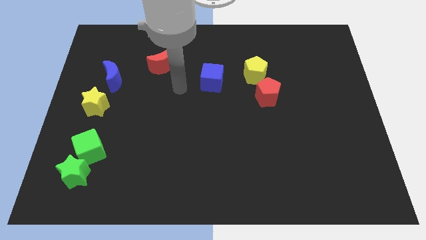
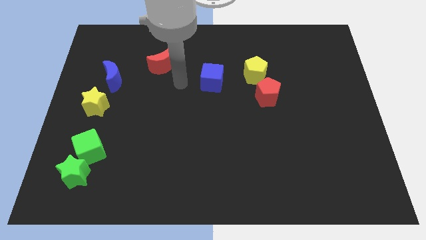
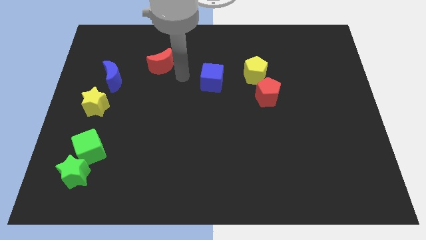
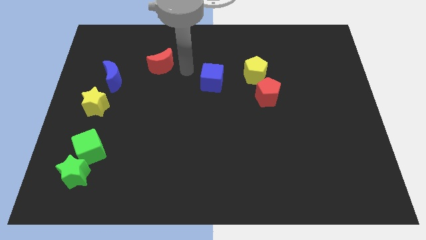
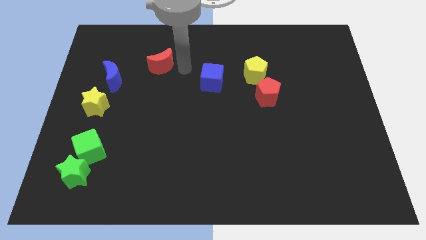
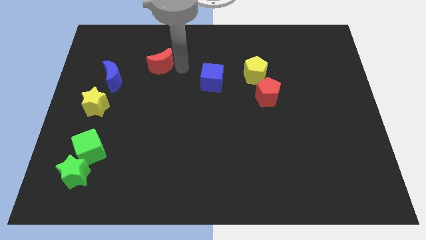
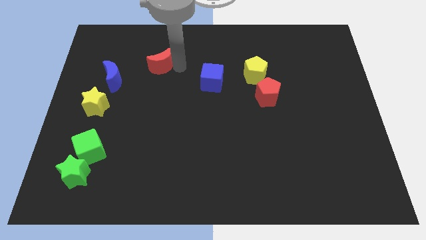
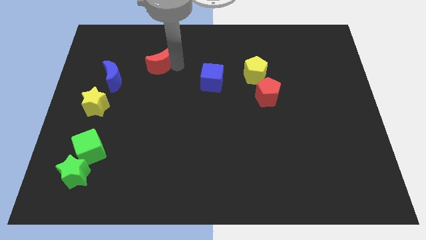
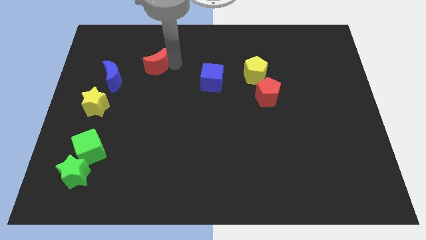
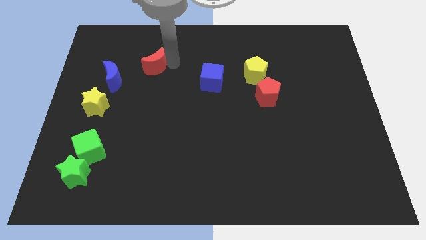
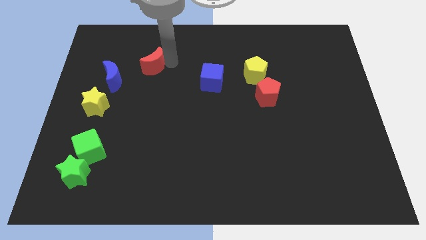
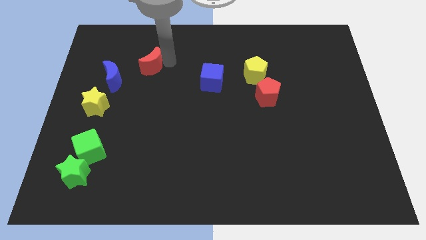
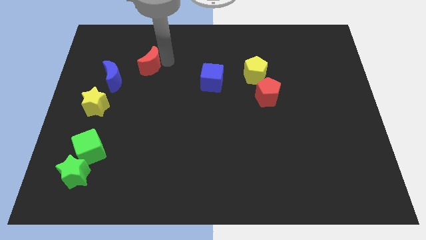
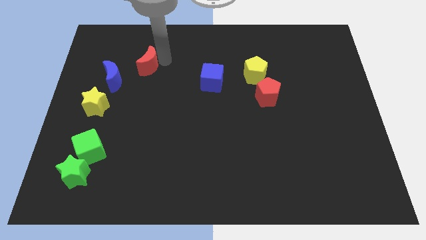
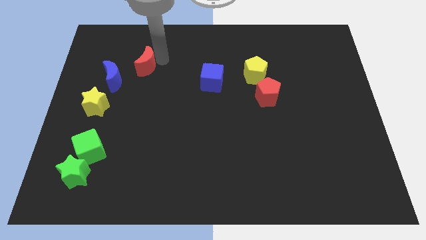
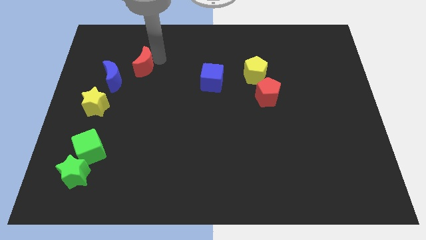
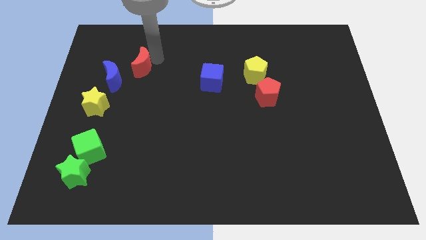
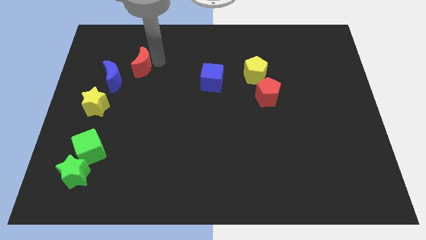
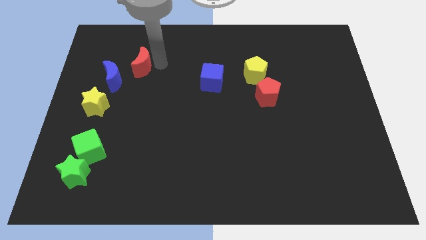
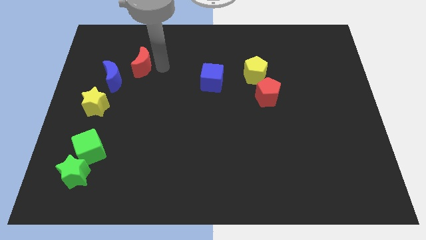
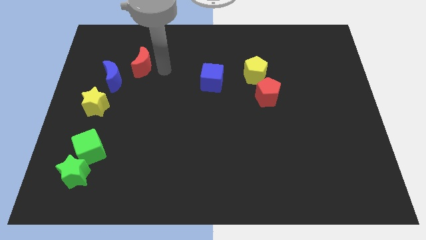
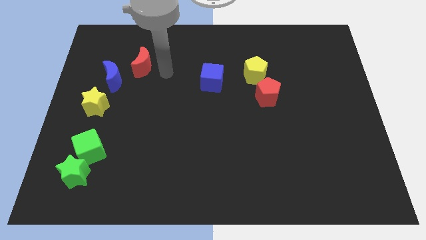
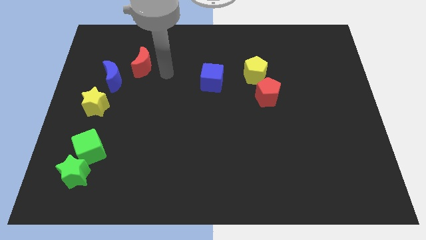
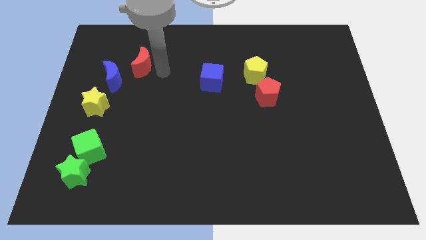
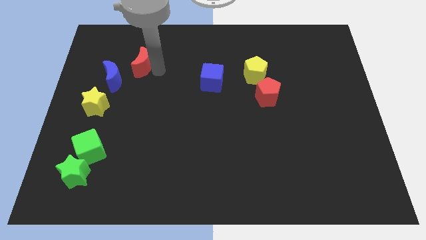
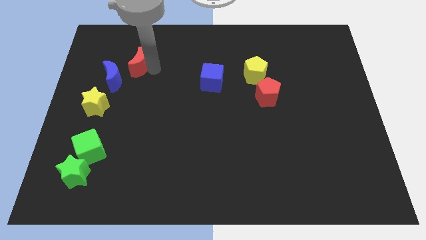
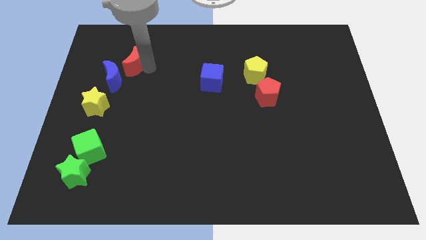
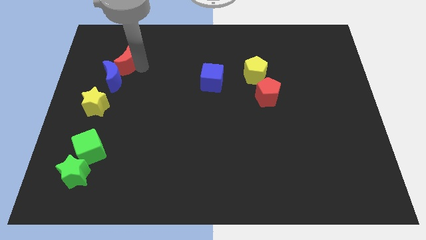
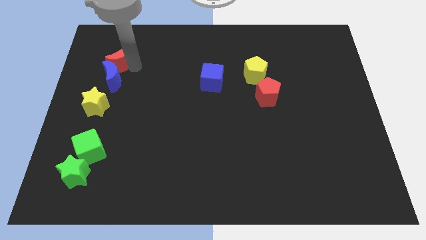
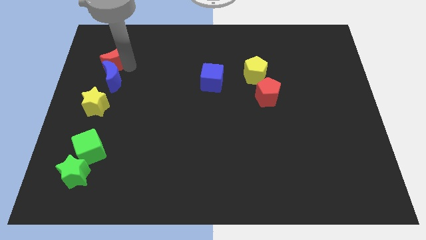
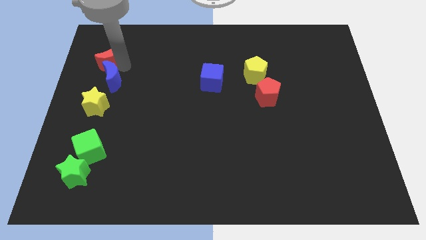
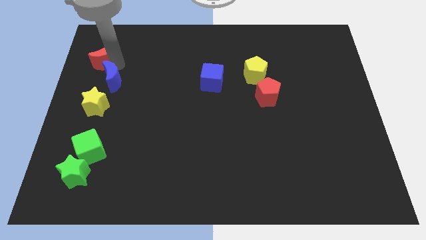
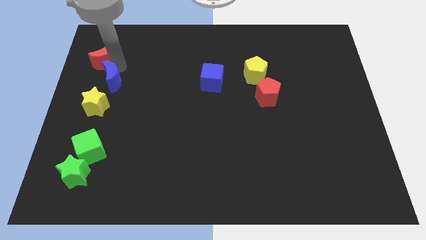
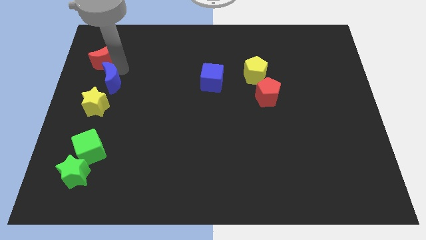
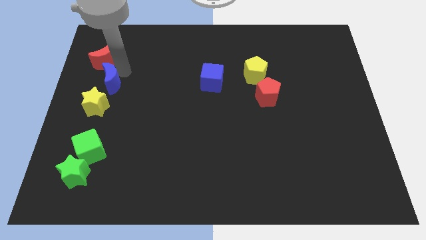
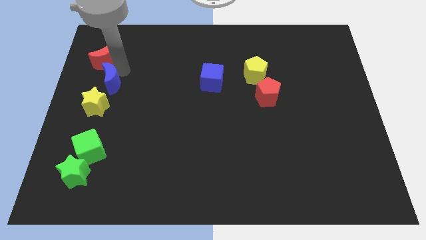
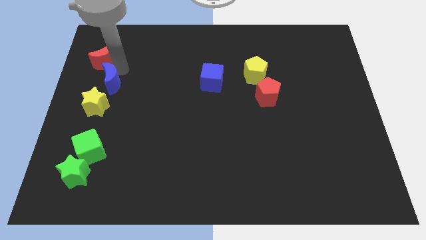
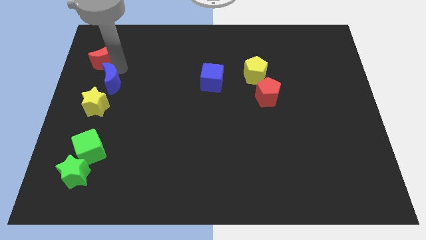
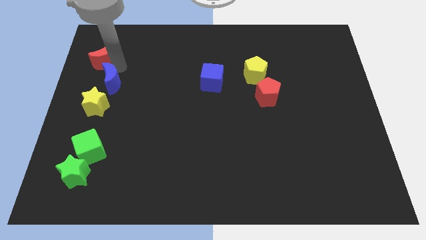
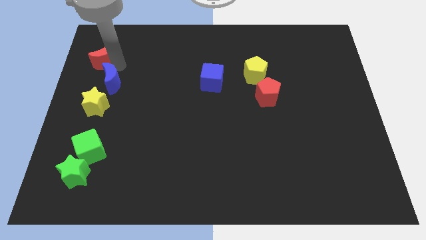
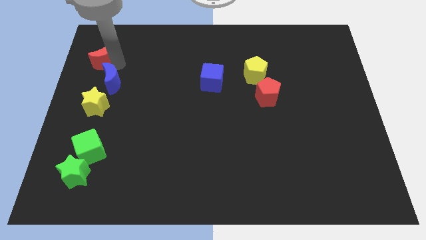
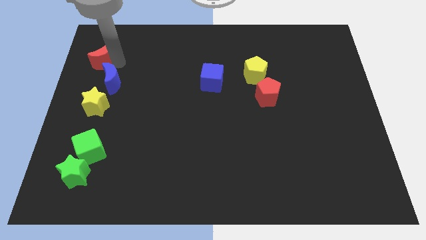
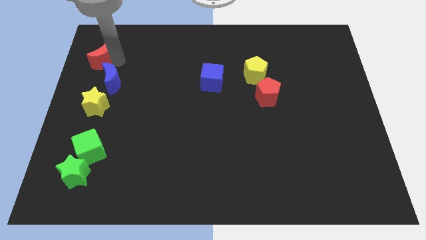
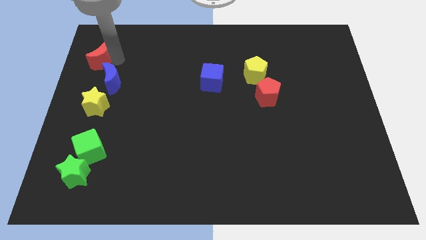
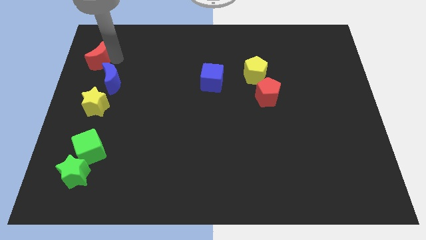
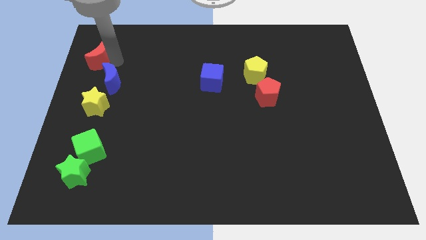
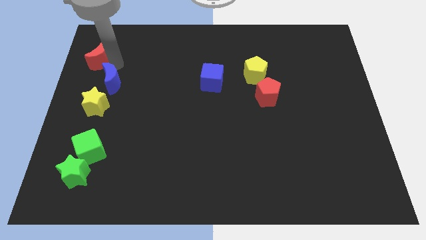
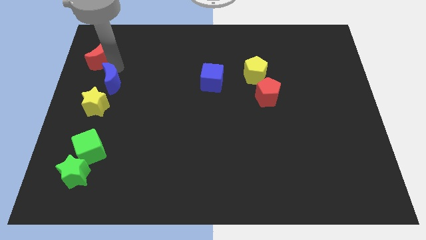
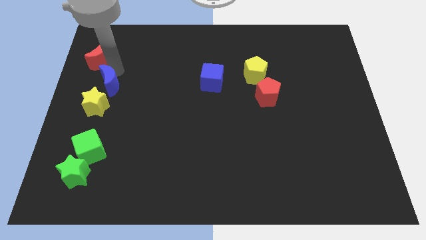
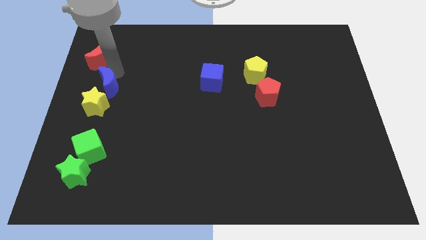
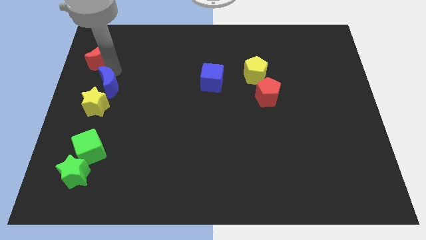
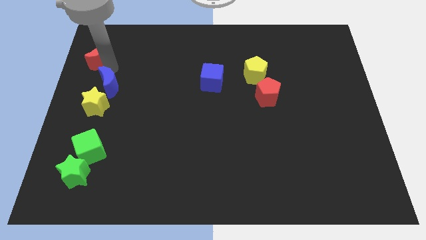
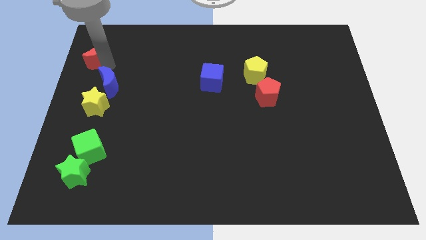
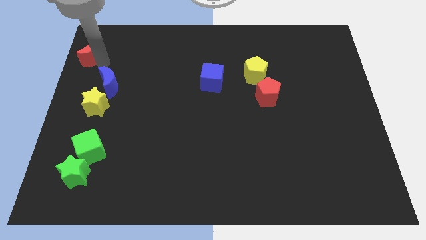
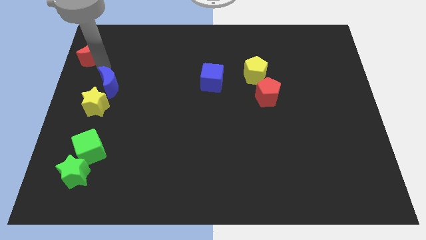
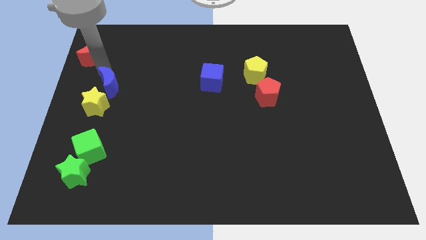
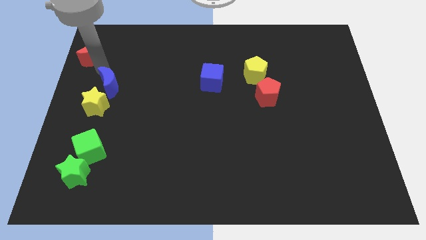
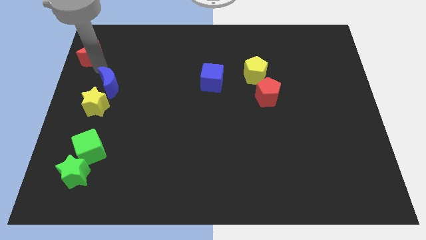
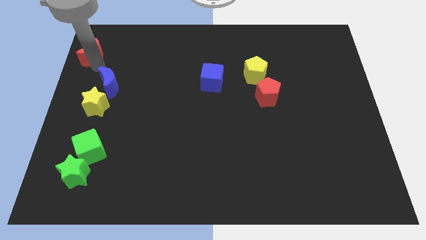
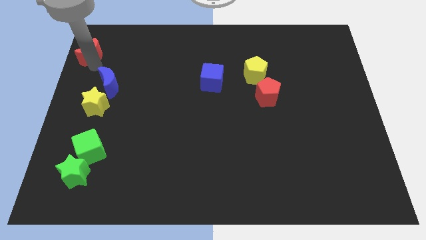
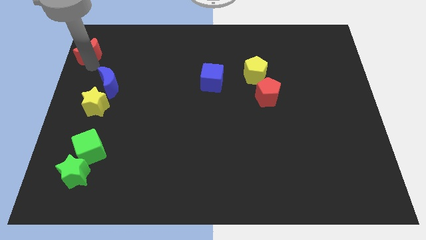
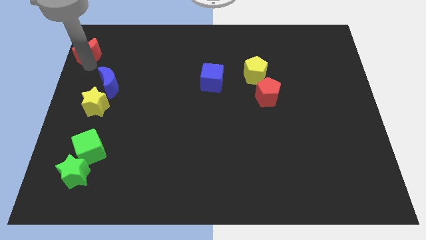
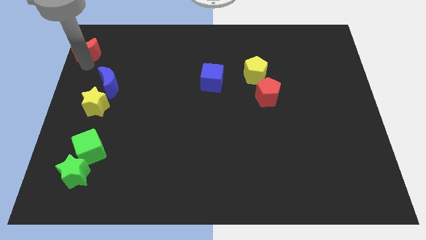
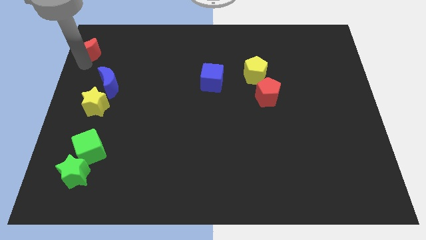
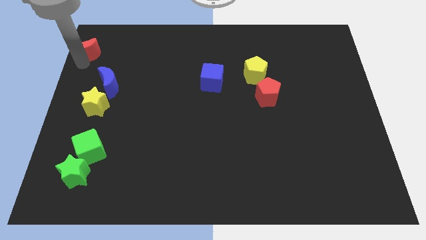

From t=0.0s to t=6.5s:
slide the red moon to the upper left corner
